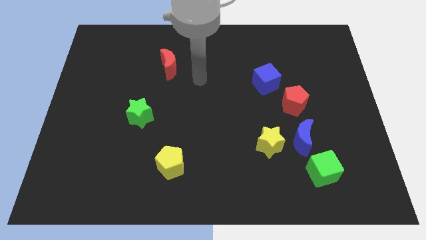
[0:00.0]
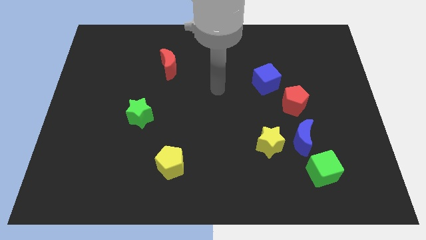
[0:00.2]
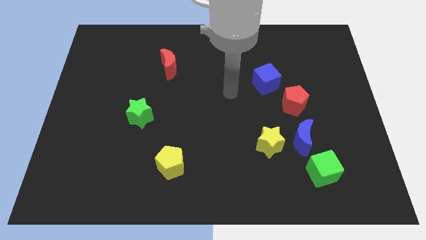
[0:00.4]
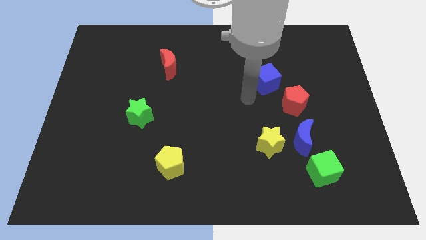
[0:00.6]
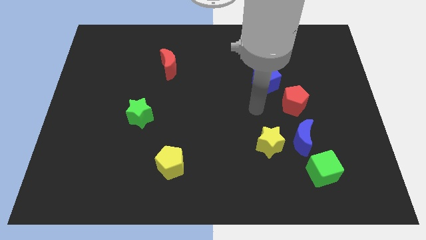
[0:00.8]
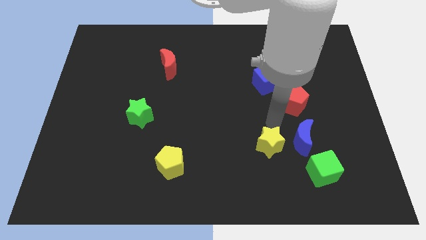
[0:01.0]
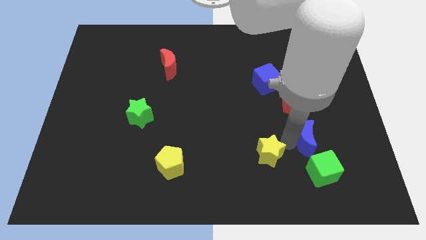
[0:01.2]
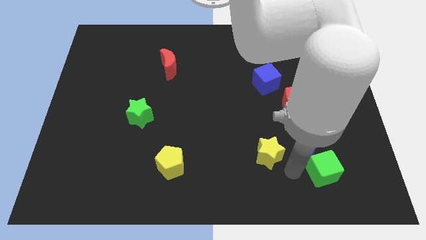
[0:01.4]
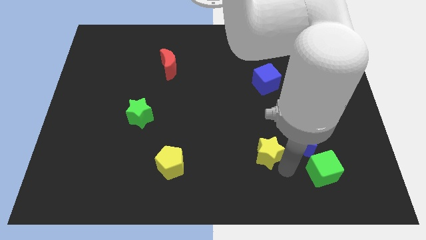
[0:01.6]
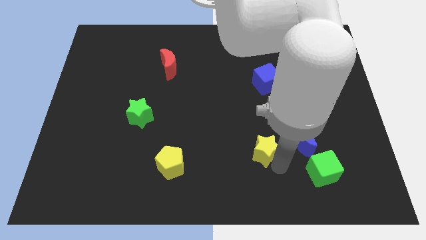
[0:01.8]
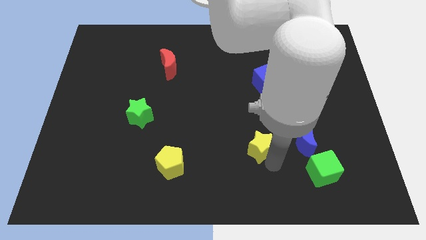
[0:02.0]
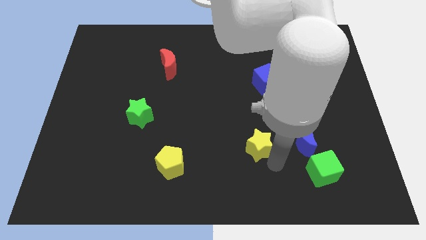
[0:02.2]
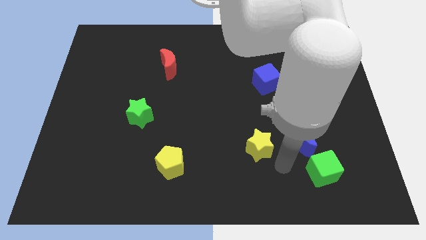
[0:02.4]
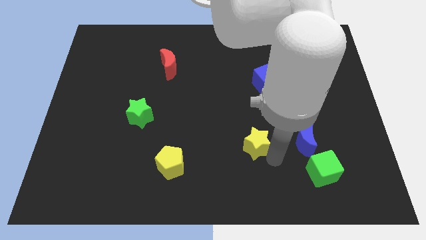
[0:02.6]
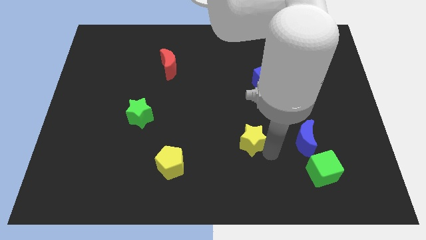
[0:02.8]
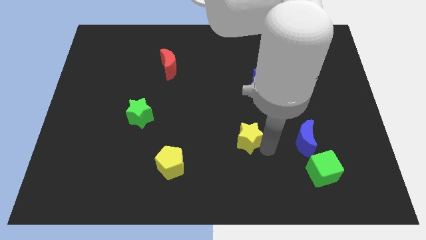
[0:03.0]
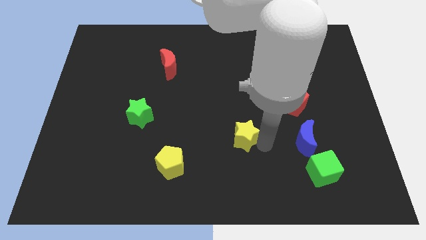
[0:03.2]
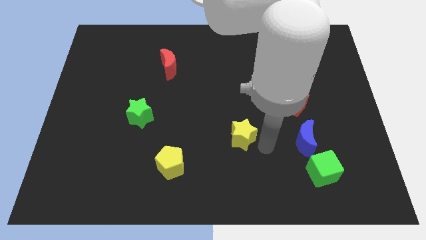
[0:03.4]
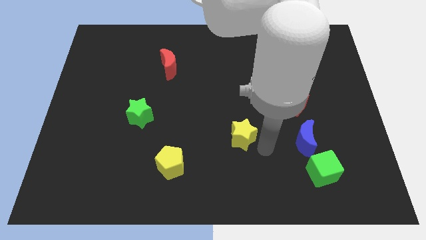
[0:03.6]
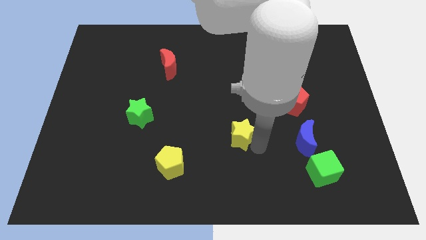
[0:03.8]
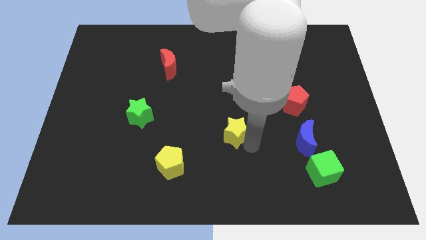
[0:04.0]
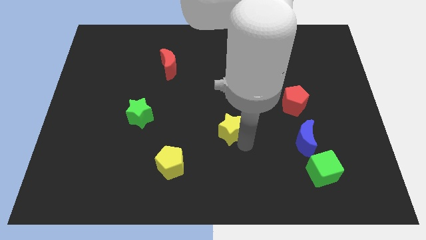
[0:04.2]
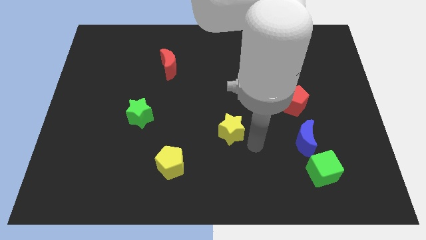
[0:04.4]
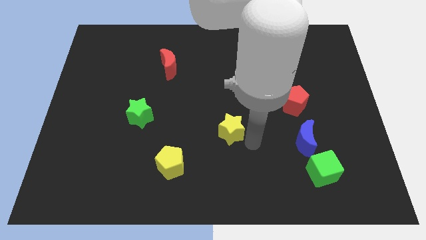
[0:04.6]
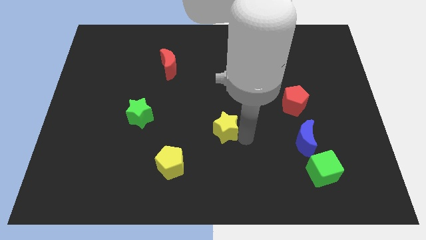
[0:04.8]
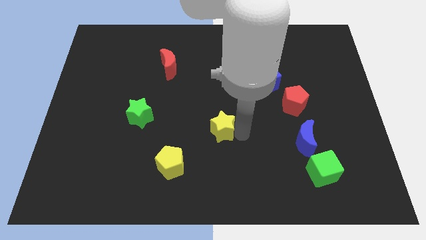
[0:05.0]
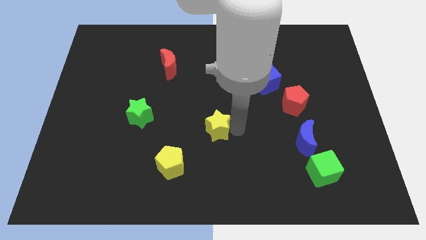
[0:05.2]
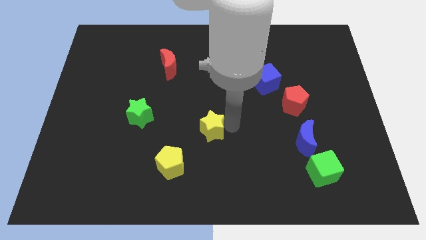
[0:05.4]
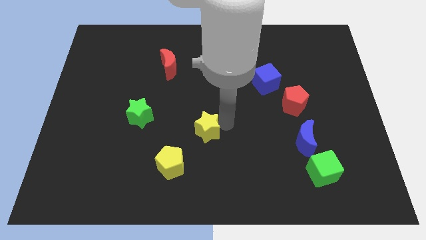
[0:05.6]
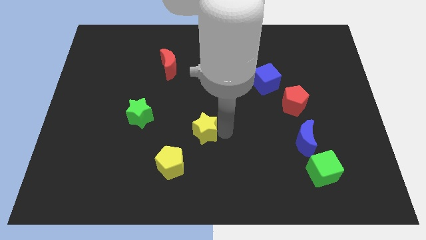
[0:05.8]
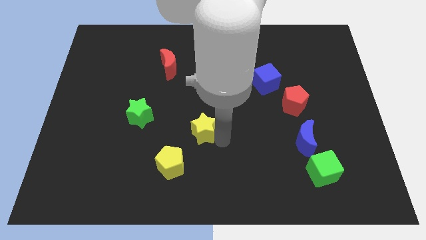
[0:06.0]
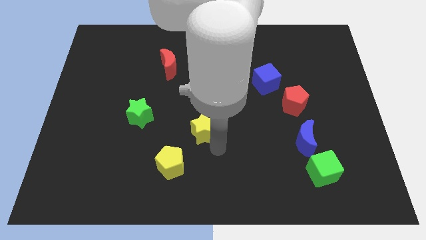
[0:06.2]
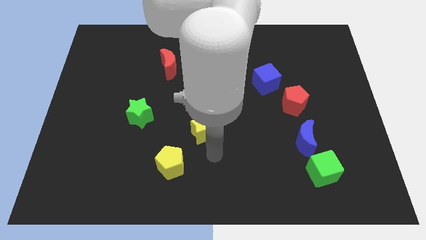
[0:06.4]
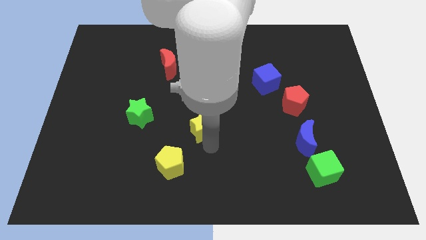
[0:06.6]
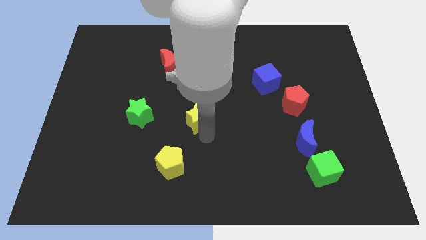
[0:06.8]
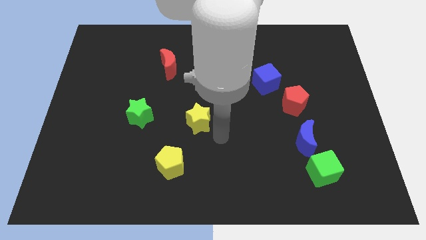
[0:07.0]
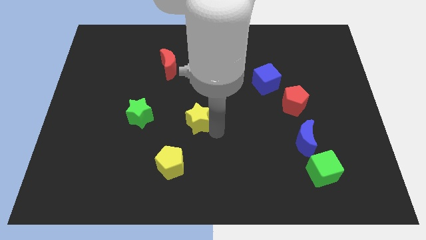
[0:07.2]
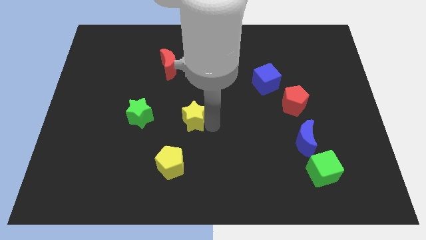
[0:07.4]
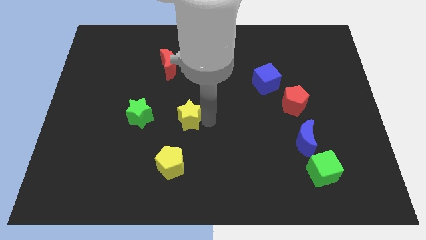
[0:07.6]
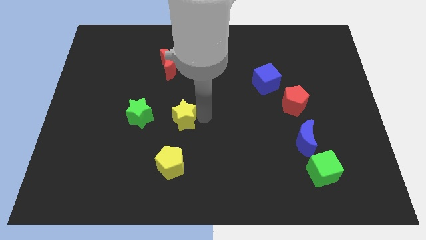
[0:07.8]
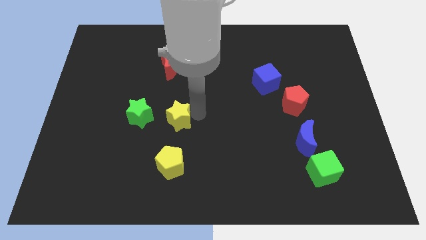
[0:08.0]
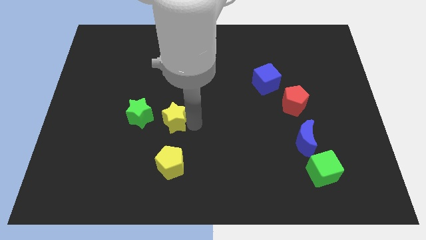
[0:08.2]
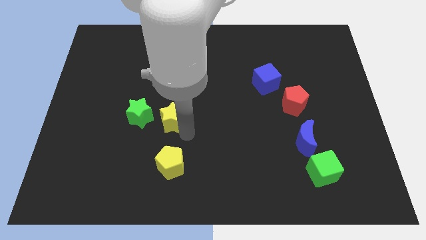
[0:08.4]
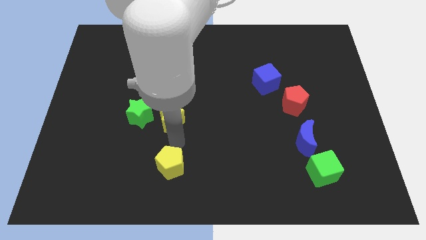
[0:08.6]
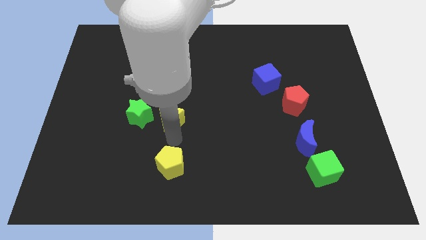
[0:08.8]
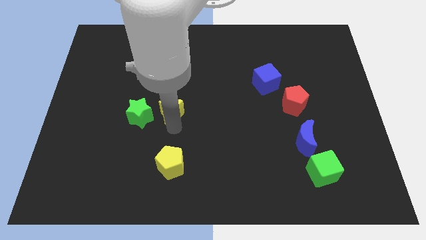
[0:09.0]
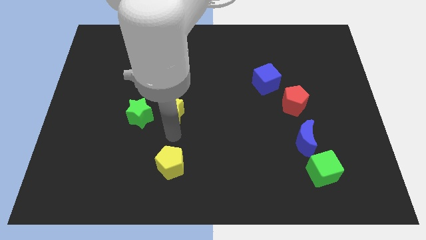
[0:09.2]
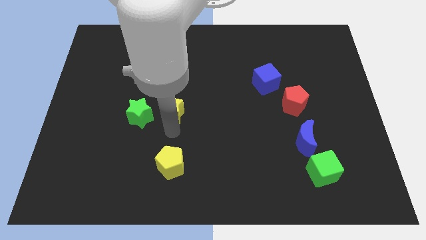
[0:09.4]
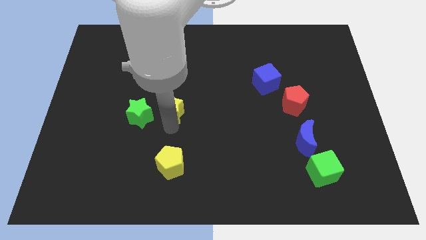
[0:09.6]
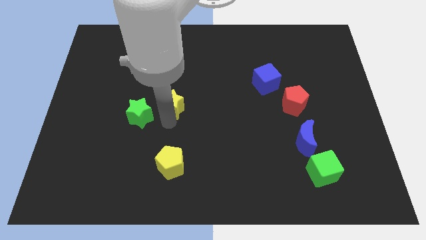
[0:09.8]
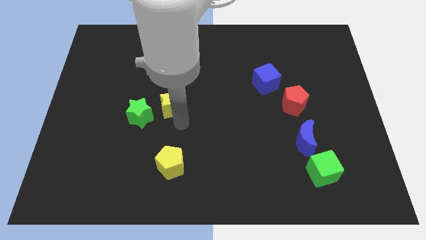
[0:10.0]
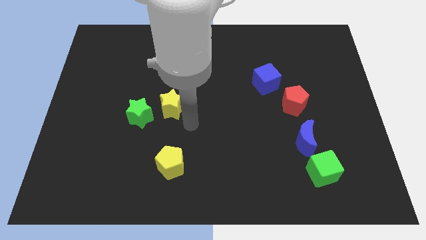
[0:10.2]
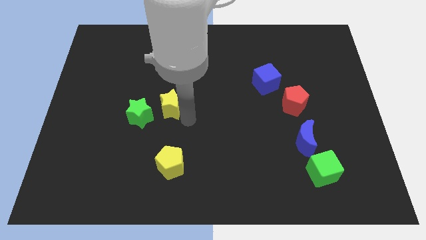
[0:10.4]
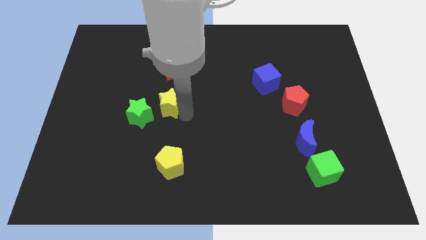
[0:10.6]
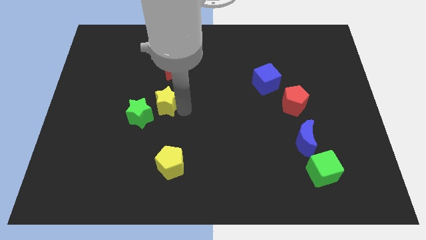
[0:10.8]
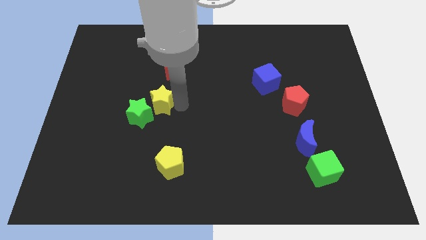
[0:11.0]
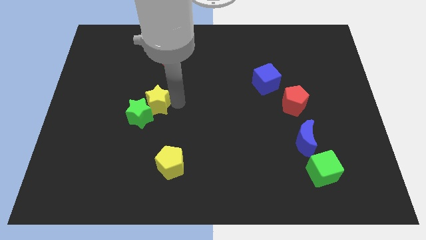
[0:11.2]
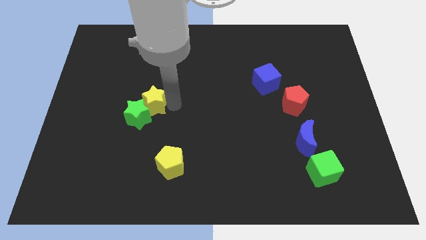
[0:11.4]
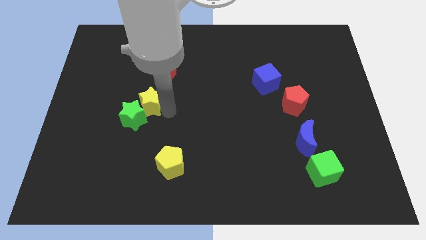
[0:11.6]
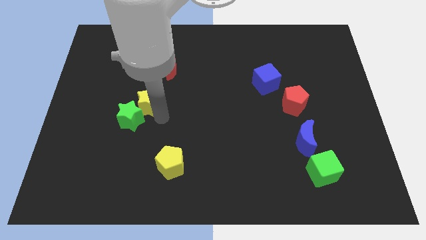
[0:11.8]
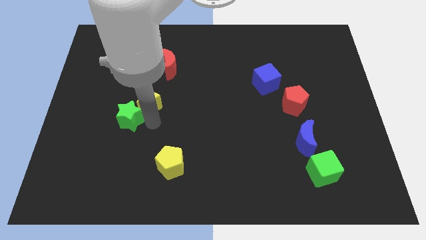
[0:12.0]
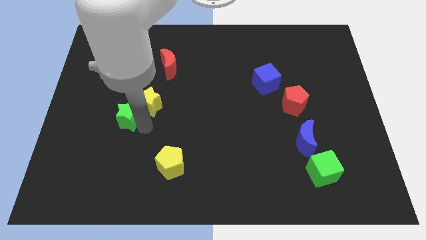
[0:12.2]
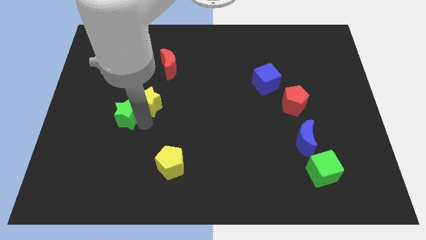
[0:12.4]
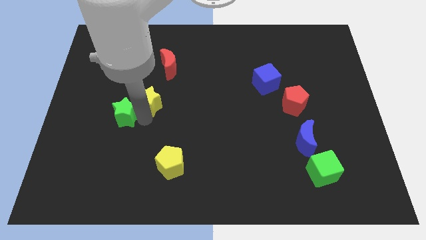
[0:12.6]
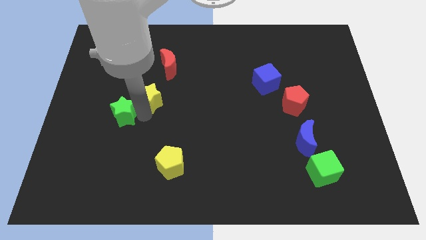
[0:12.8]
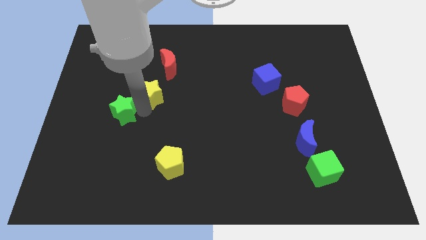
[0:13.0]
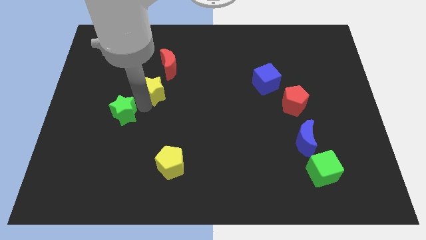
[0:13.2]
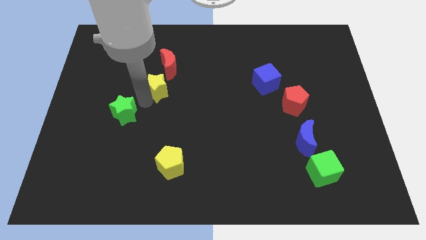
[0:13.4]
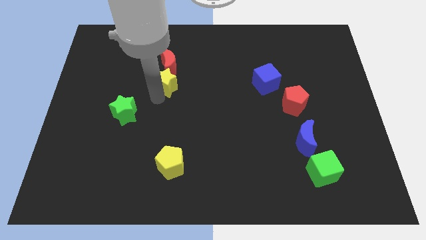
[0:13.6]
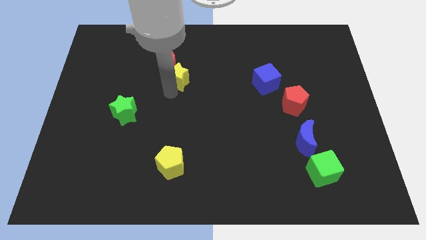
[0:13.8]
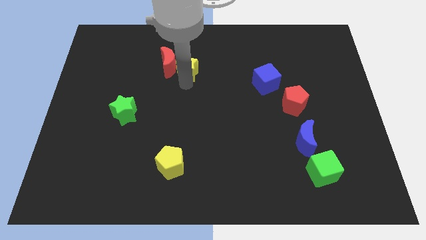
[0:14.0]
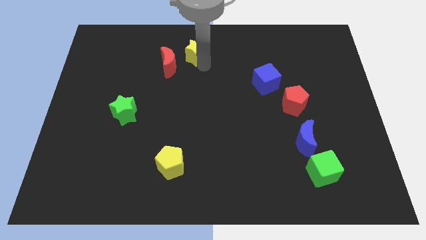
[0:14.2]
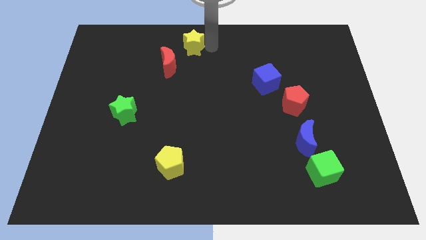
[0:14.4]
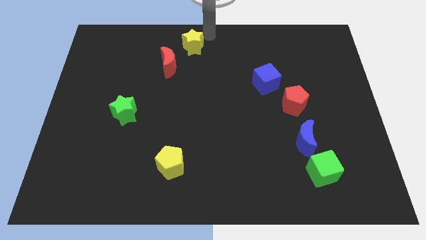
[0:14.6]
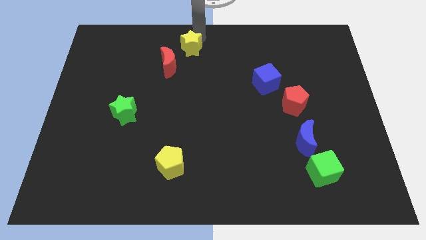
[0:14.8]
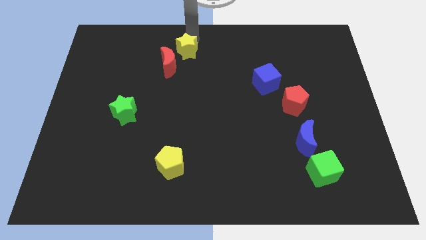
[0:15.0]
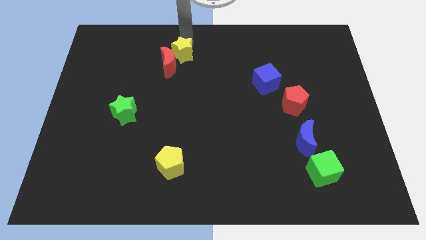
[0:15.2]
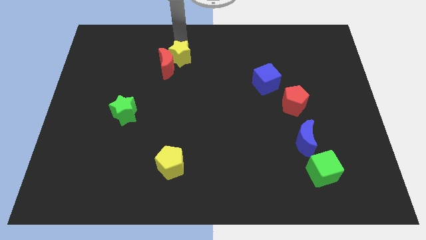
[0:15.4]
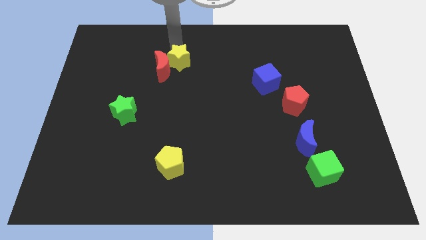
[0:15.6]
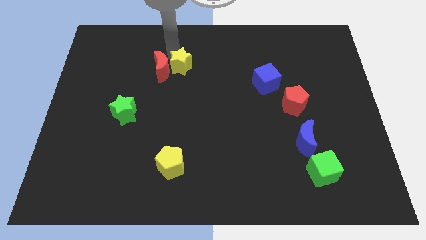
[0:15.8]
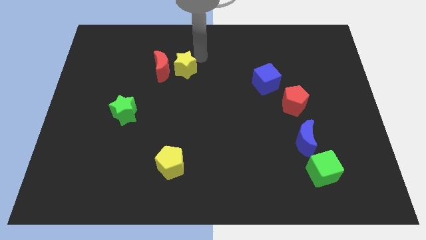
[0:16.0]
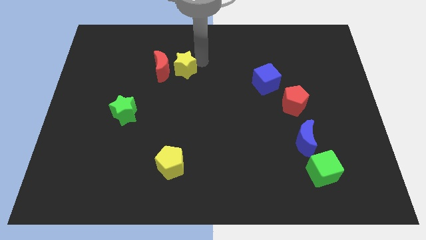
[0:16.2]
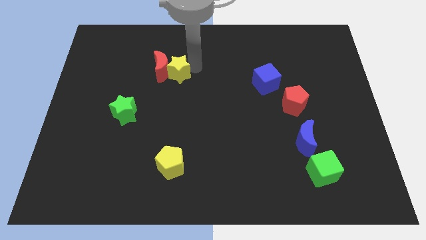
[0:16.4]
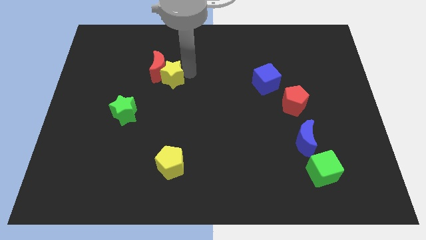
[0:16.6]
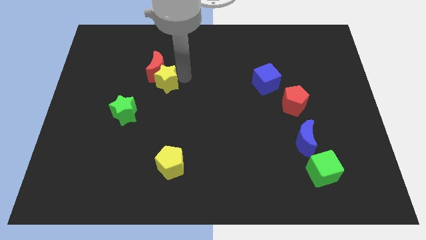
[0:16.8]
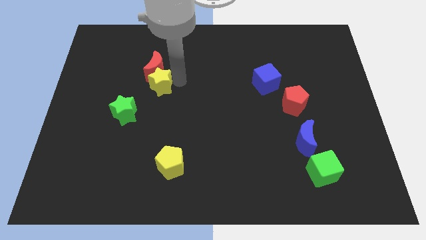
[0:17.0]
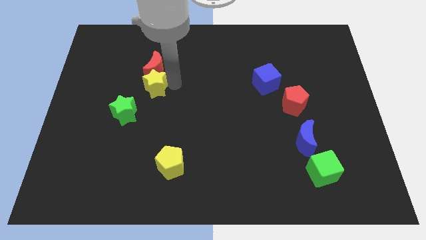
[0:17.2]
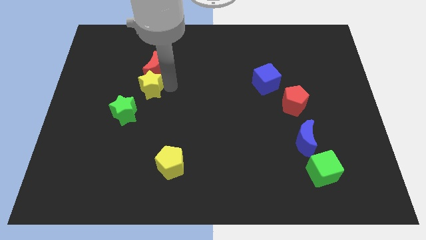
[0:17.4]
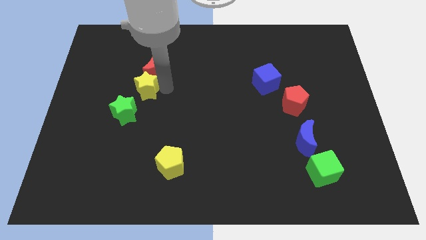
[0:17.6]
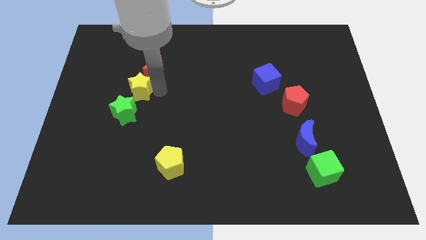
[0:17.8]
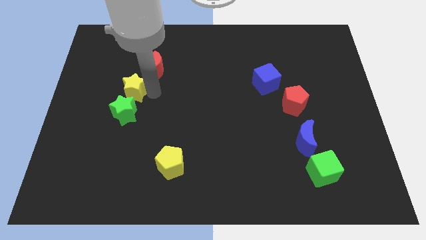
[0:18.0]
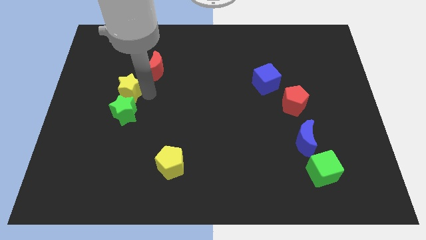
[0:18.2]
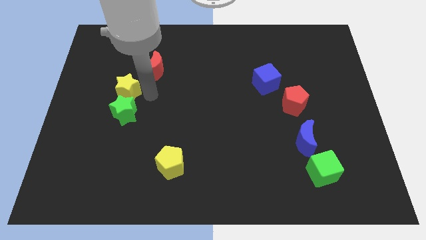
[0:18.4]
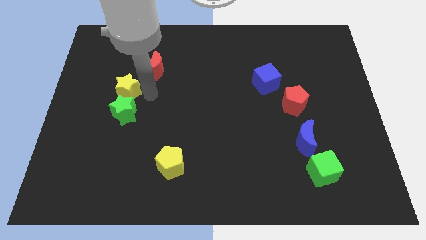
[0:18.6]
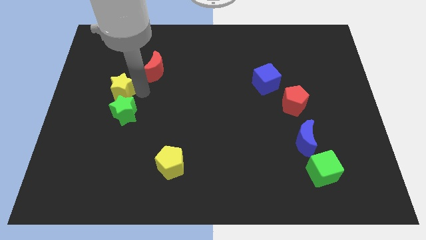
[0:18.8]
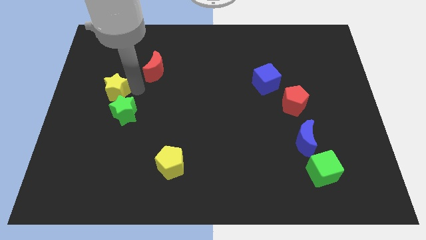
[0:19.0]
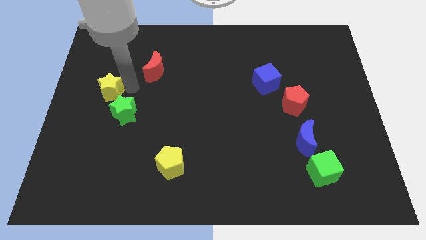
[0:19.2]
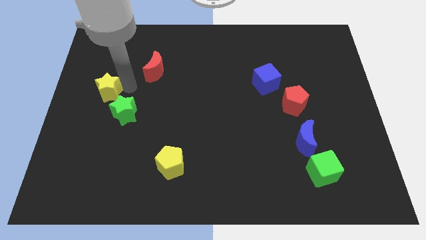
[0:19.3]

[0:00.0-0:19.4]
push the yellow star to the center left
